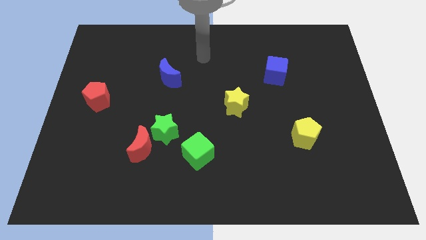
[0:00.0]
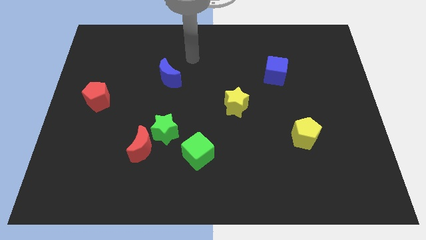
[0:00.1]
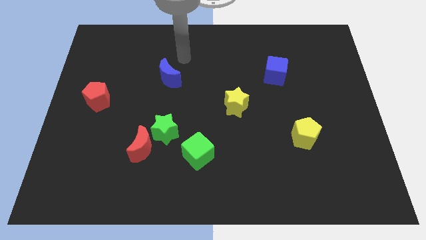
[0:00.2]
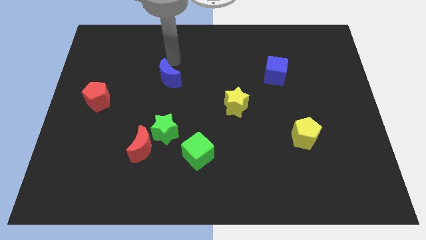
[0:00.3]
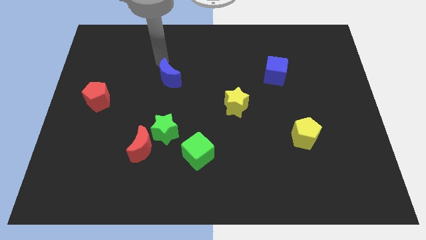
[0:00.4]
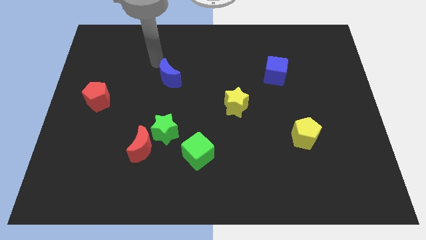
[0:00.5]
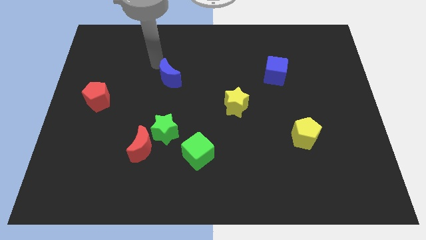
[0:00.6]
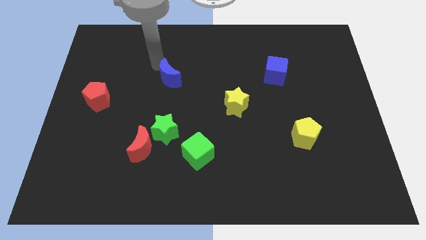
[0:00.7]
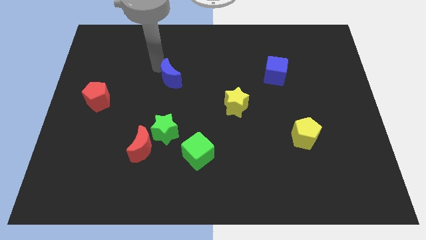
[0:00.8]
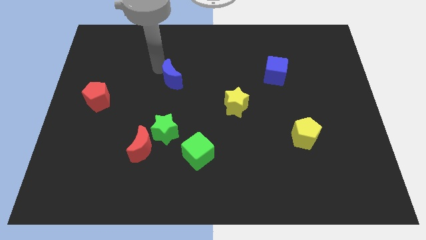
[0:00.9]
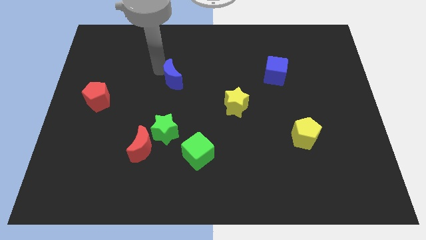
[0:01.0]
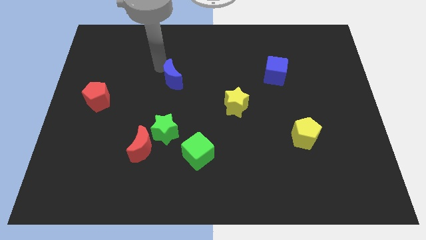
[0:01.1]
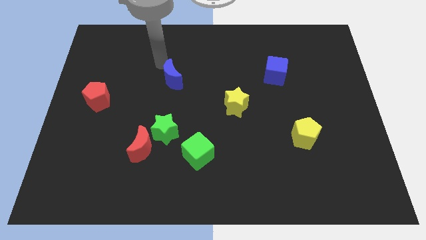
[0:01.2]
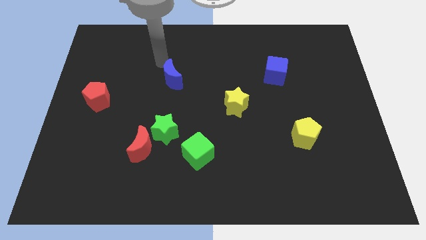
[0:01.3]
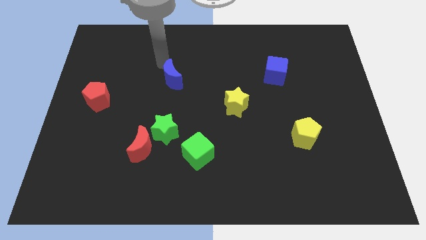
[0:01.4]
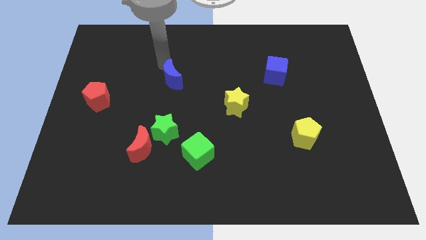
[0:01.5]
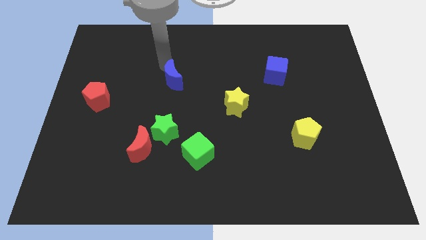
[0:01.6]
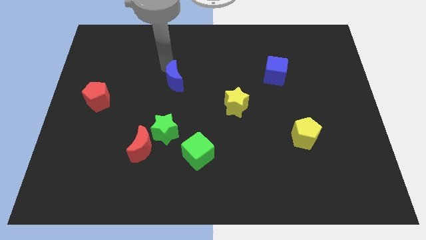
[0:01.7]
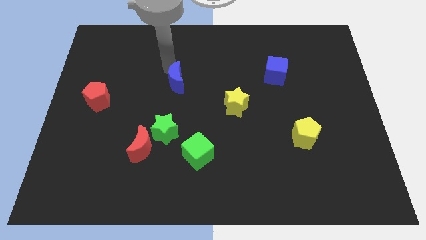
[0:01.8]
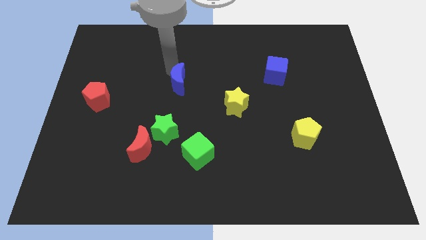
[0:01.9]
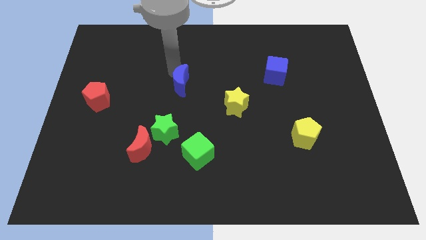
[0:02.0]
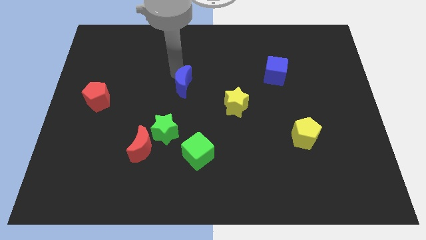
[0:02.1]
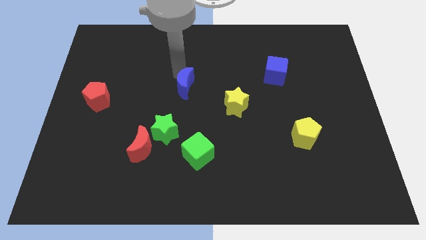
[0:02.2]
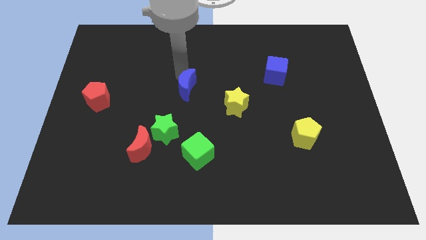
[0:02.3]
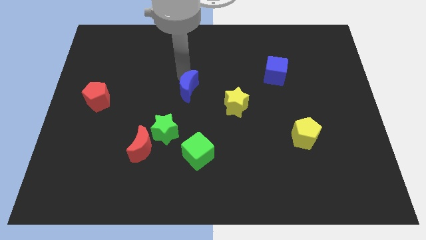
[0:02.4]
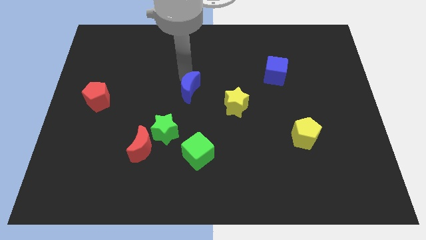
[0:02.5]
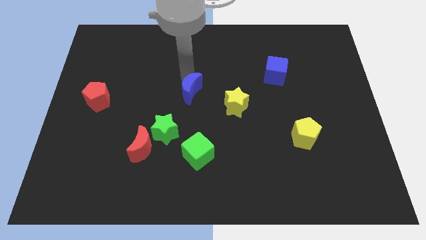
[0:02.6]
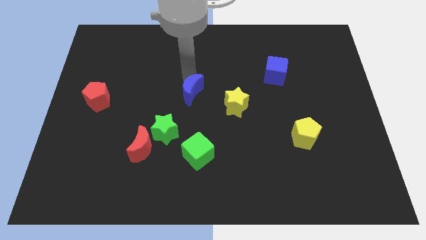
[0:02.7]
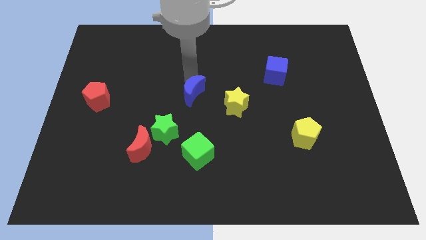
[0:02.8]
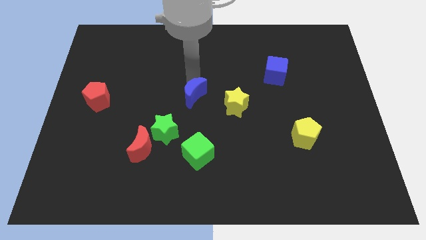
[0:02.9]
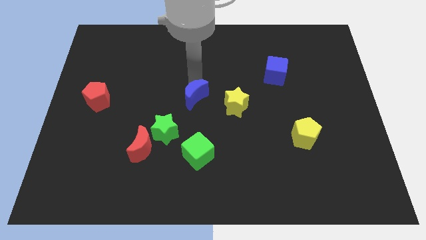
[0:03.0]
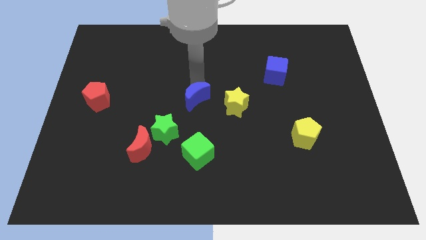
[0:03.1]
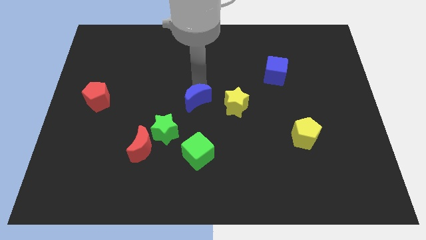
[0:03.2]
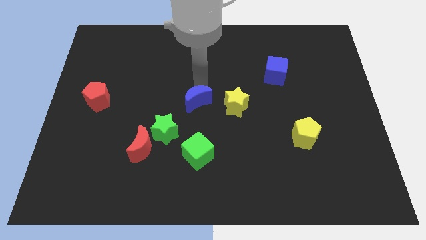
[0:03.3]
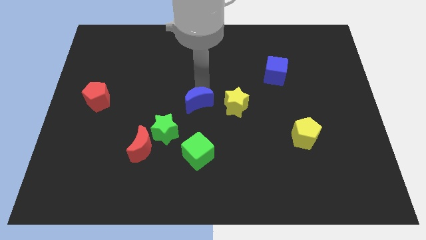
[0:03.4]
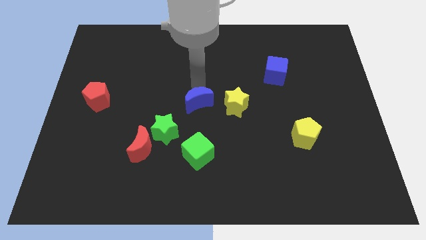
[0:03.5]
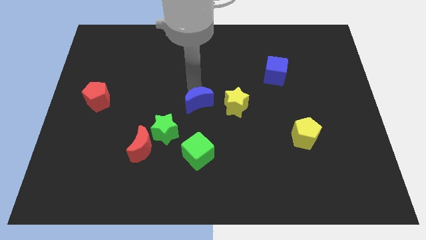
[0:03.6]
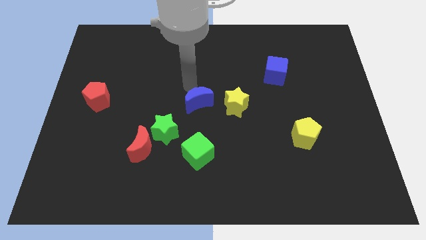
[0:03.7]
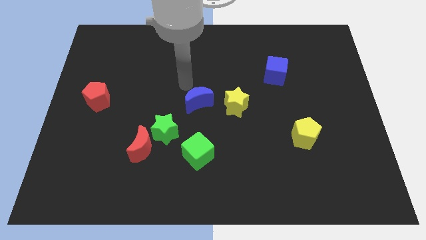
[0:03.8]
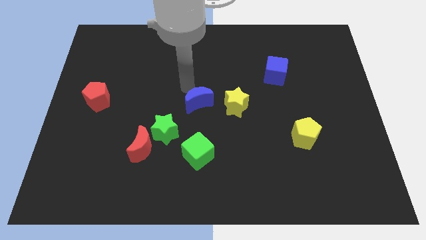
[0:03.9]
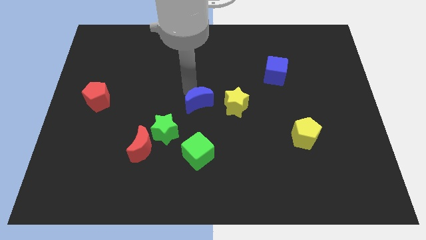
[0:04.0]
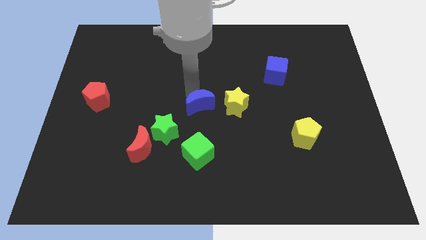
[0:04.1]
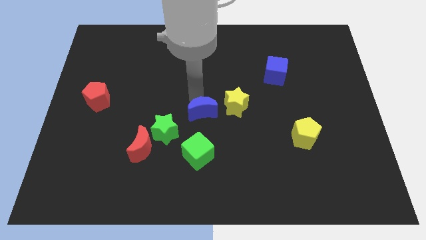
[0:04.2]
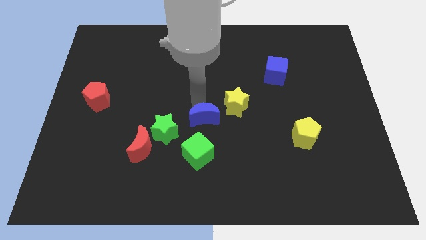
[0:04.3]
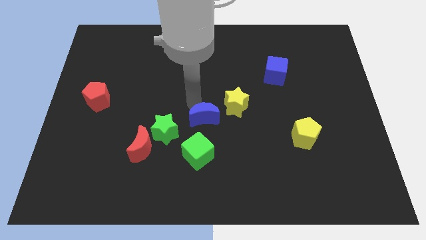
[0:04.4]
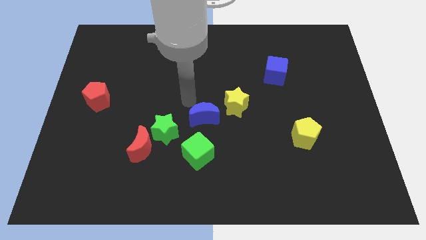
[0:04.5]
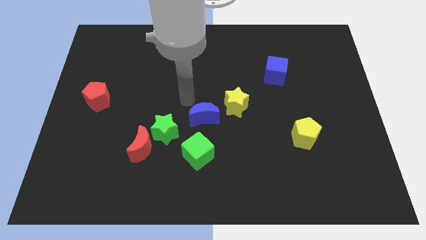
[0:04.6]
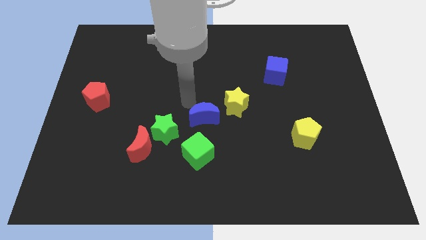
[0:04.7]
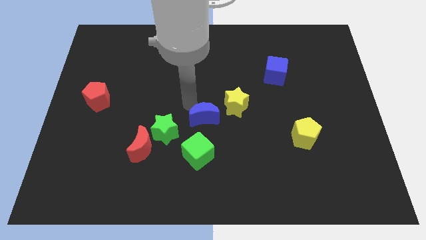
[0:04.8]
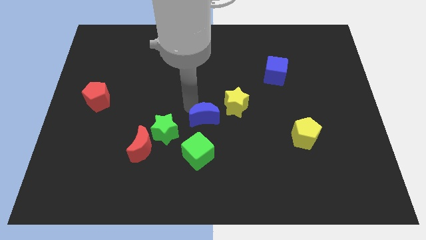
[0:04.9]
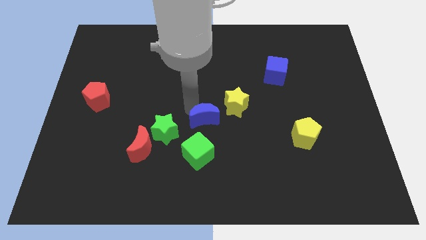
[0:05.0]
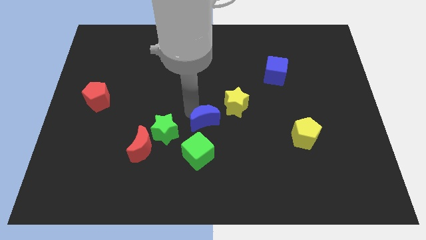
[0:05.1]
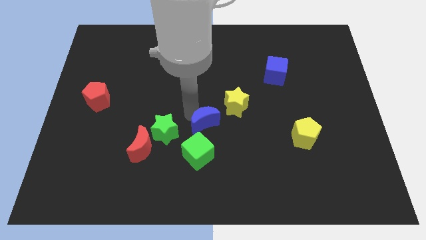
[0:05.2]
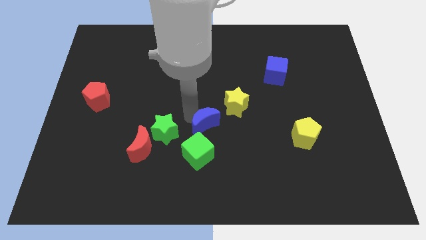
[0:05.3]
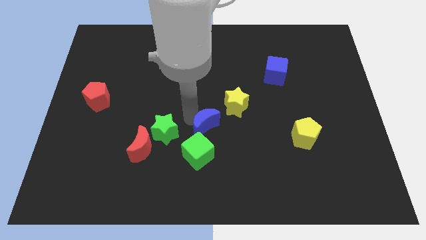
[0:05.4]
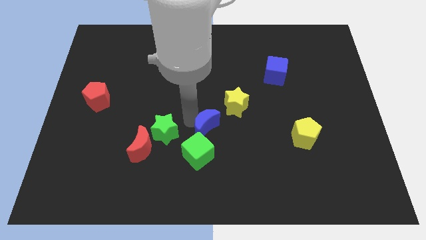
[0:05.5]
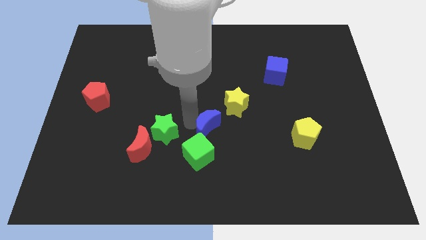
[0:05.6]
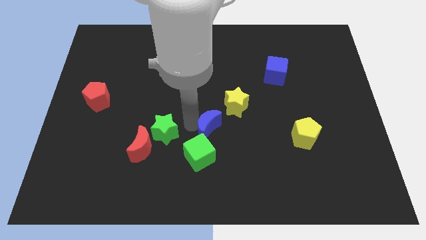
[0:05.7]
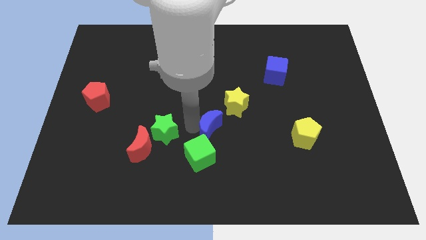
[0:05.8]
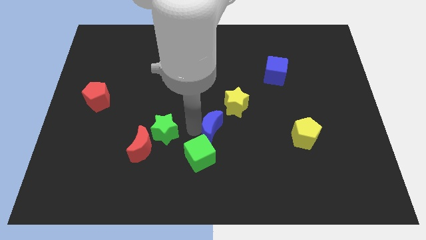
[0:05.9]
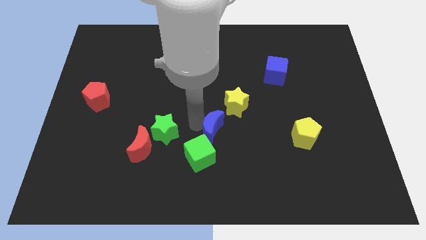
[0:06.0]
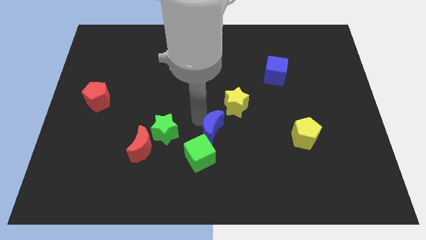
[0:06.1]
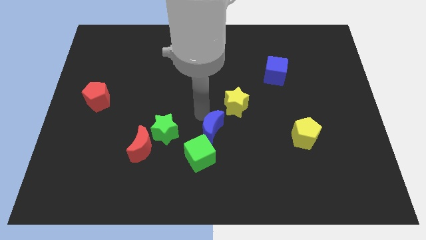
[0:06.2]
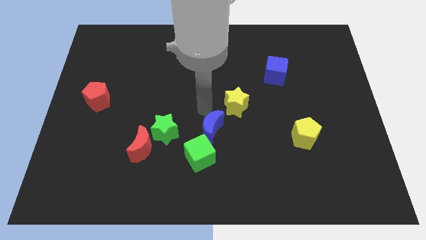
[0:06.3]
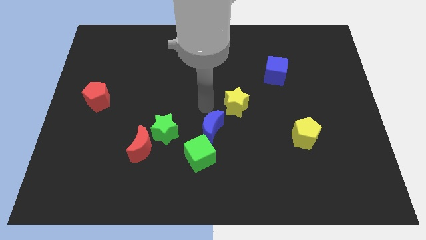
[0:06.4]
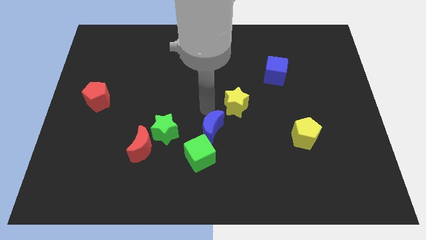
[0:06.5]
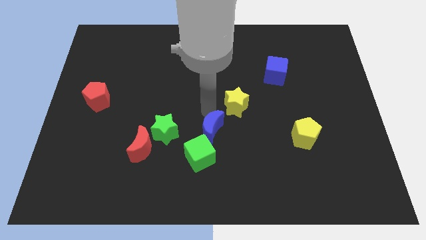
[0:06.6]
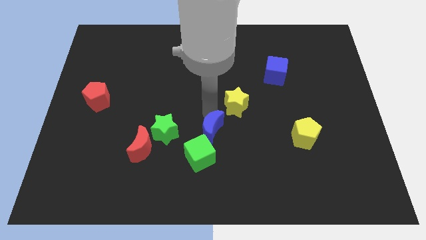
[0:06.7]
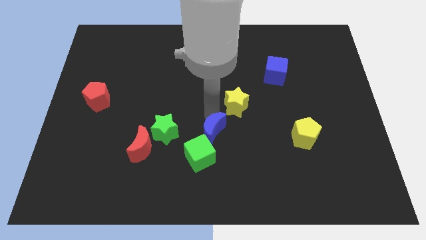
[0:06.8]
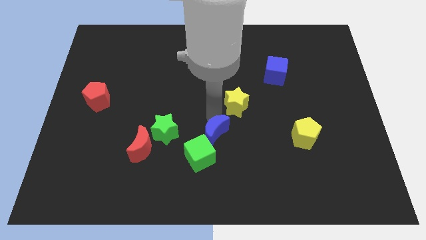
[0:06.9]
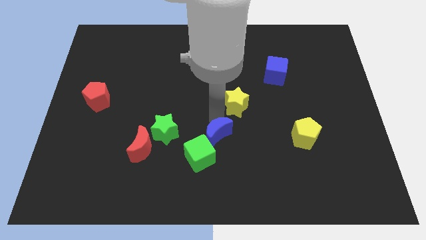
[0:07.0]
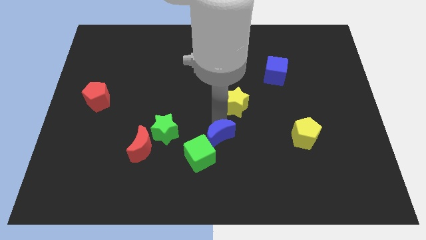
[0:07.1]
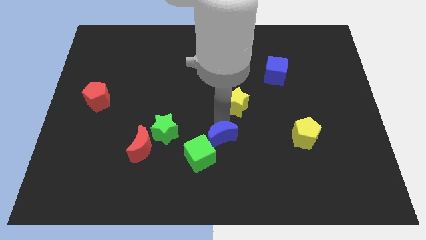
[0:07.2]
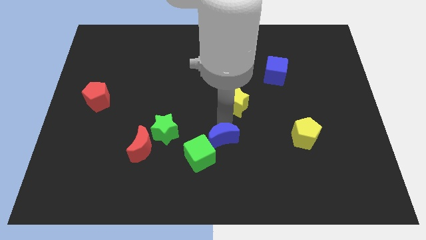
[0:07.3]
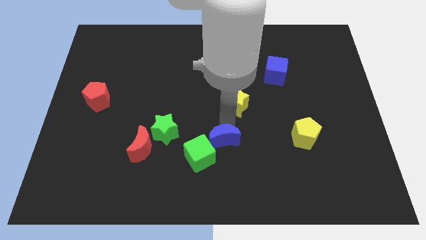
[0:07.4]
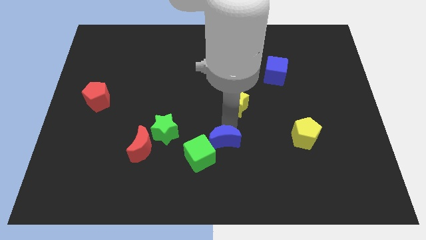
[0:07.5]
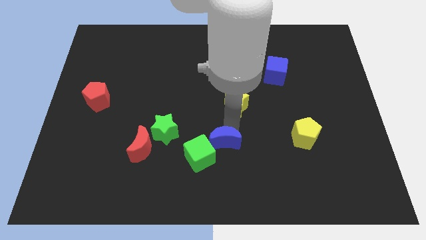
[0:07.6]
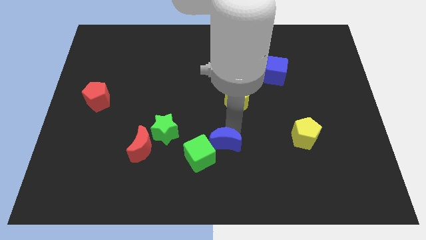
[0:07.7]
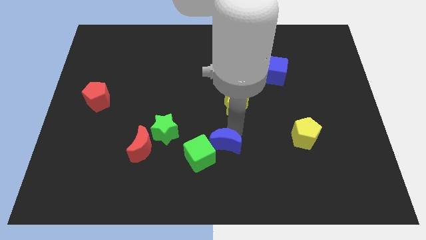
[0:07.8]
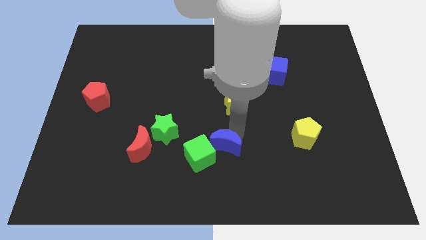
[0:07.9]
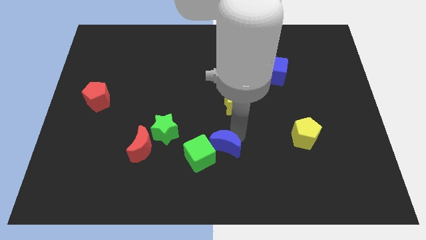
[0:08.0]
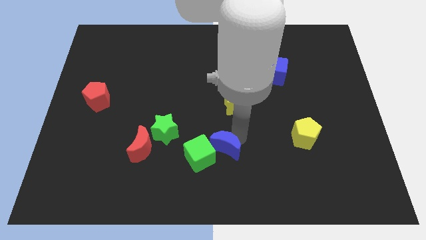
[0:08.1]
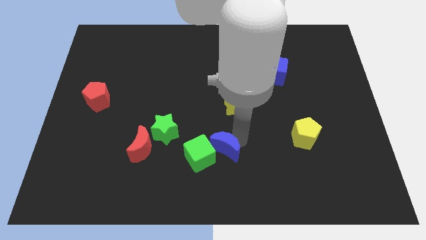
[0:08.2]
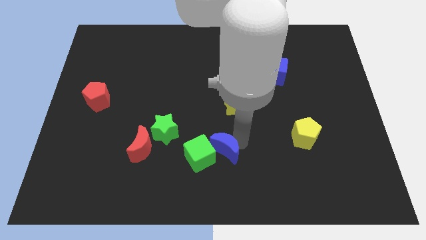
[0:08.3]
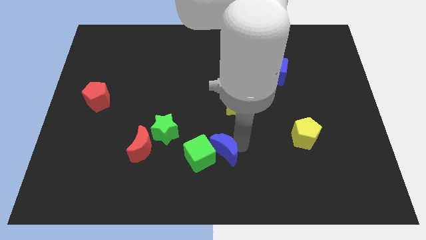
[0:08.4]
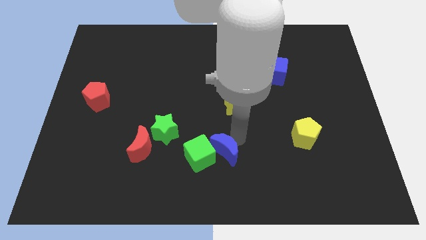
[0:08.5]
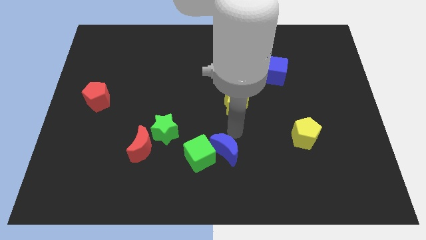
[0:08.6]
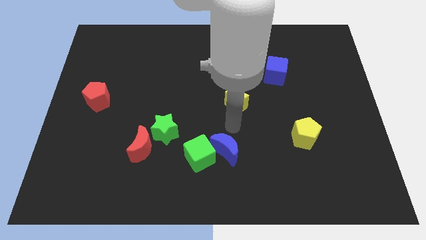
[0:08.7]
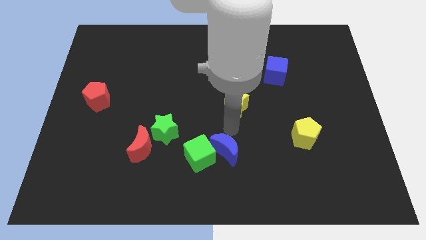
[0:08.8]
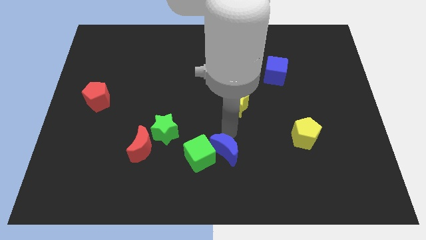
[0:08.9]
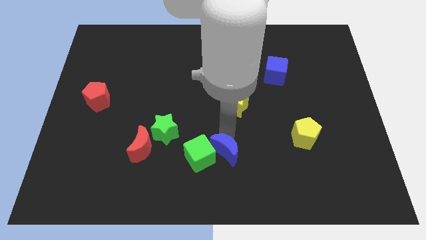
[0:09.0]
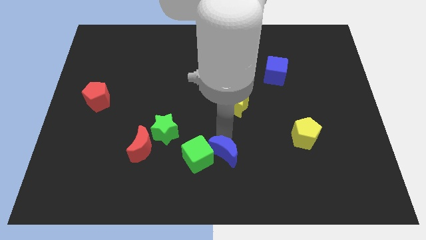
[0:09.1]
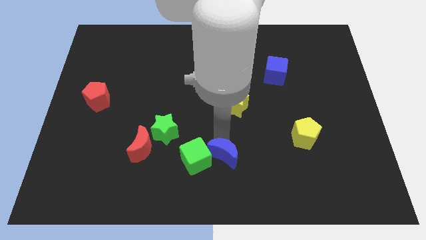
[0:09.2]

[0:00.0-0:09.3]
slide the blue moon to the bottom side
